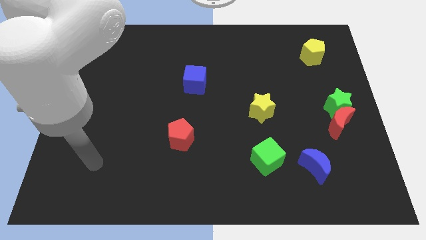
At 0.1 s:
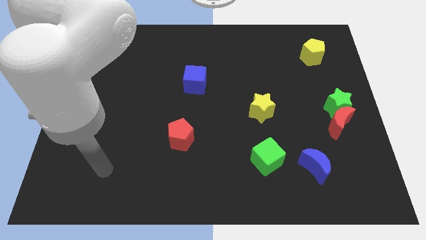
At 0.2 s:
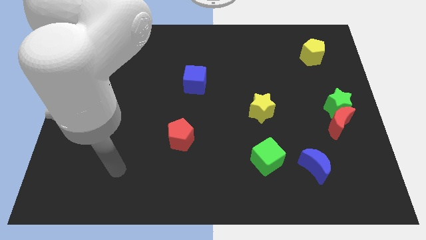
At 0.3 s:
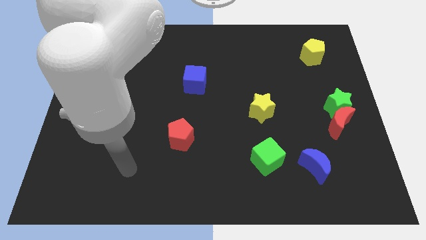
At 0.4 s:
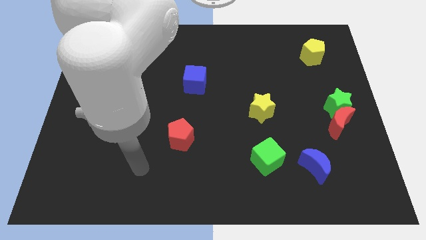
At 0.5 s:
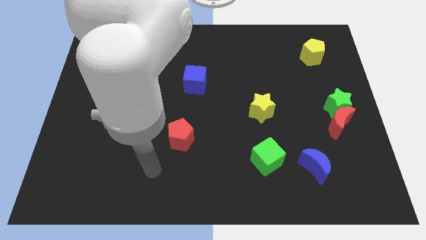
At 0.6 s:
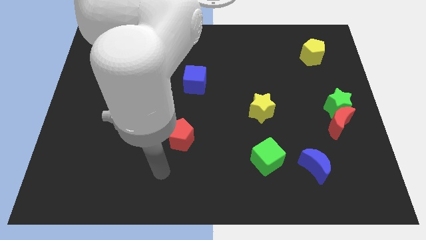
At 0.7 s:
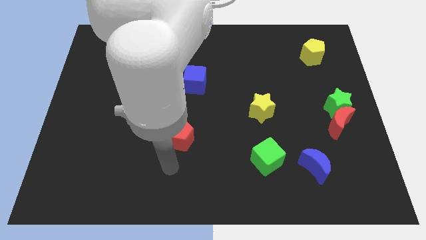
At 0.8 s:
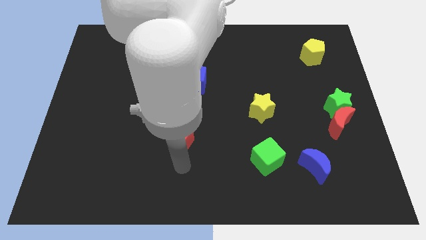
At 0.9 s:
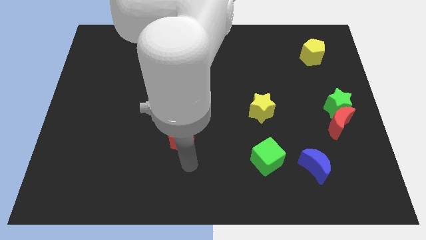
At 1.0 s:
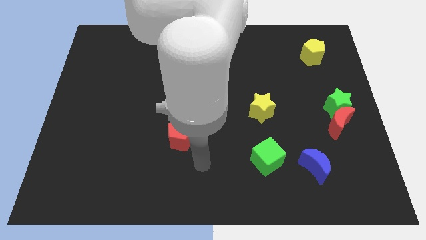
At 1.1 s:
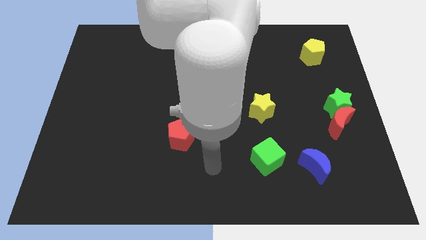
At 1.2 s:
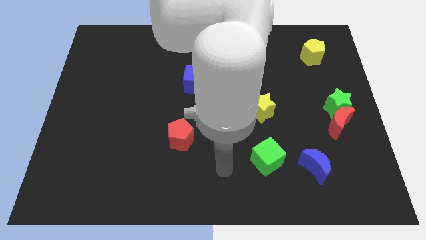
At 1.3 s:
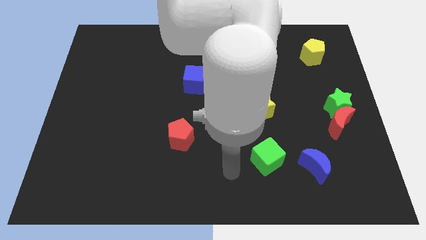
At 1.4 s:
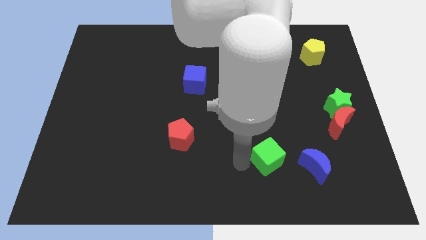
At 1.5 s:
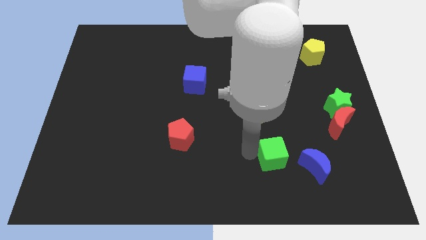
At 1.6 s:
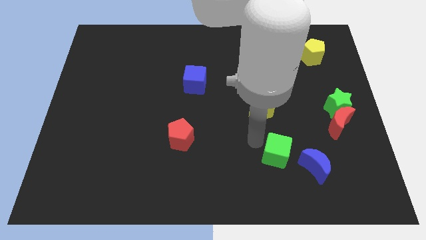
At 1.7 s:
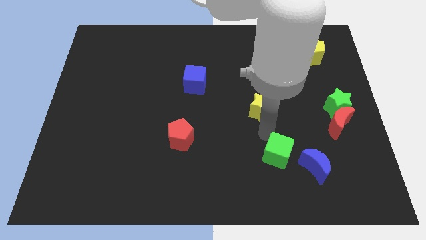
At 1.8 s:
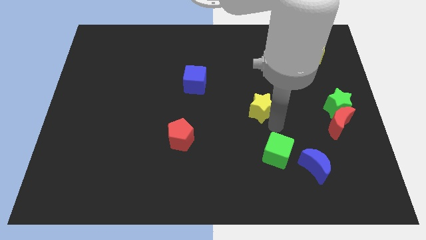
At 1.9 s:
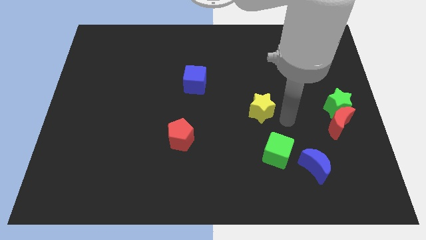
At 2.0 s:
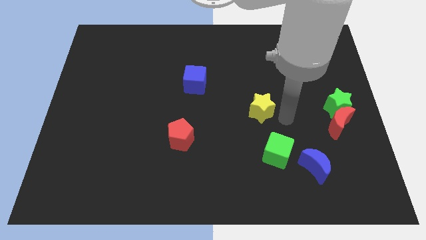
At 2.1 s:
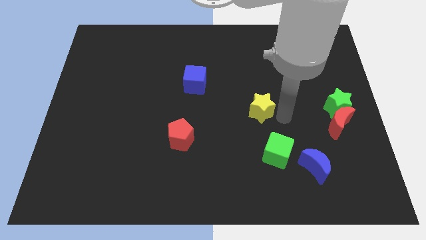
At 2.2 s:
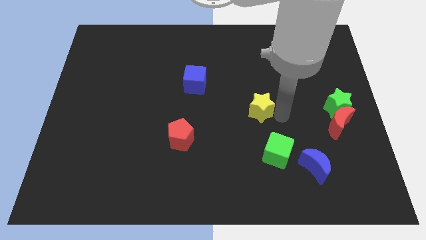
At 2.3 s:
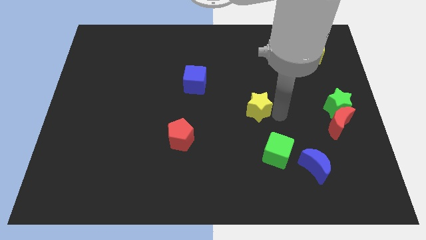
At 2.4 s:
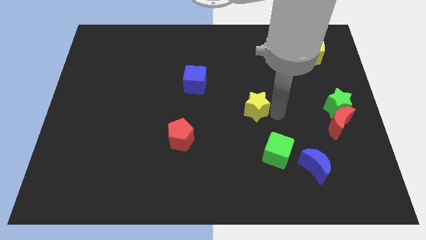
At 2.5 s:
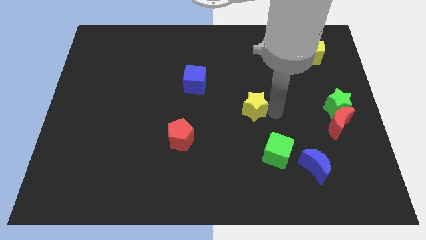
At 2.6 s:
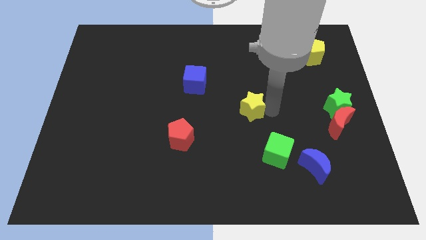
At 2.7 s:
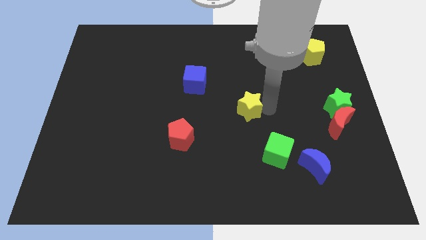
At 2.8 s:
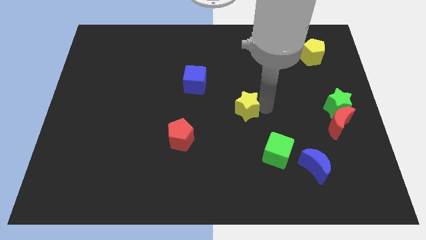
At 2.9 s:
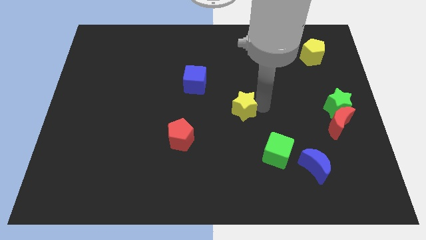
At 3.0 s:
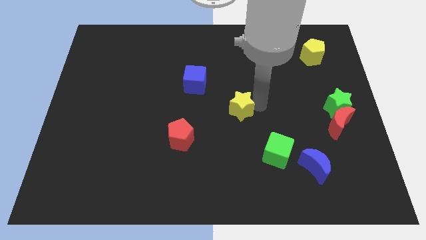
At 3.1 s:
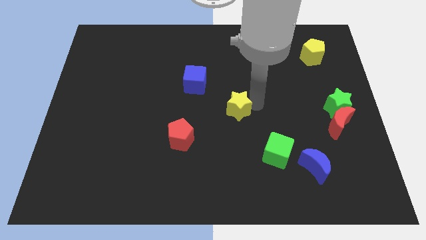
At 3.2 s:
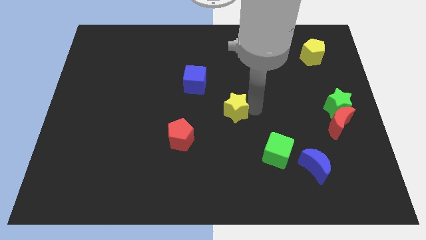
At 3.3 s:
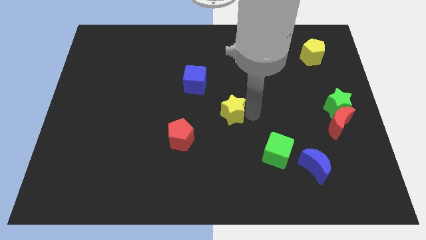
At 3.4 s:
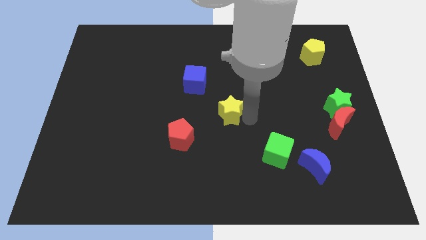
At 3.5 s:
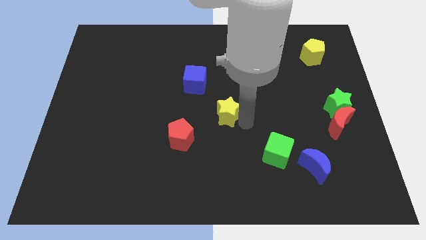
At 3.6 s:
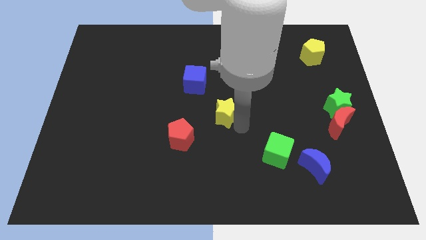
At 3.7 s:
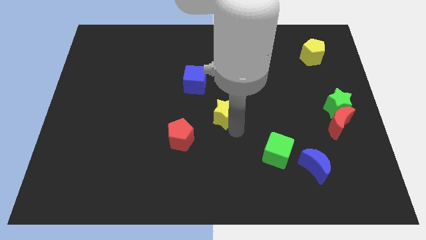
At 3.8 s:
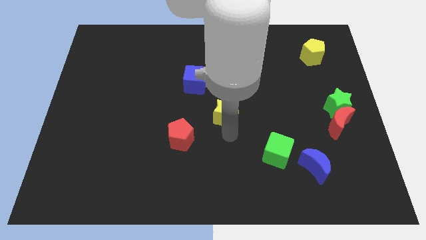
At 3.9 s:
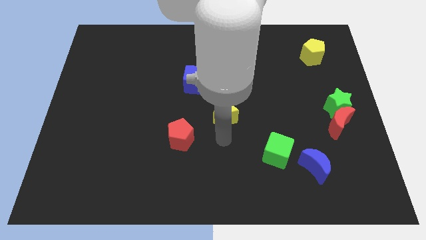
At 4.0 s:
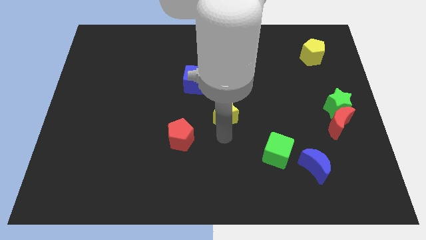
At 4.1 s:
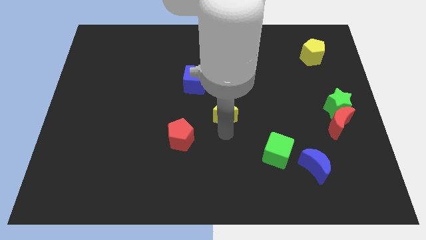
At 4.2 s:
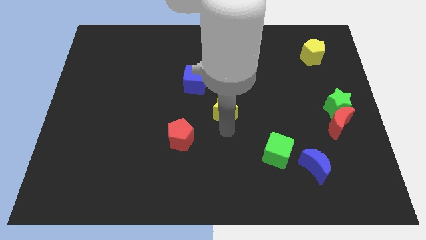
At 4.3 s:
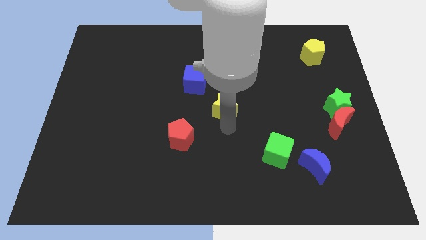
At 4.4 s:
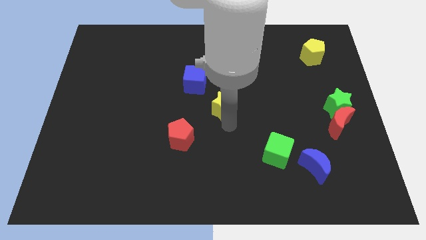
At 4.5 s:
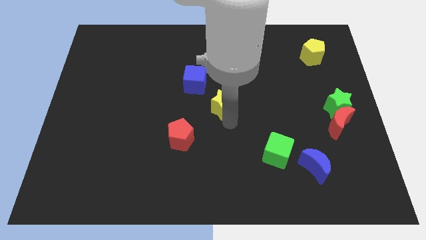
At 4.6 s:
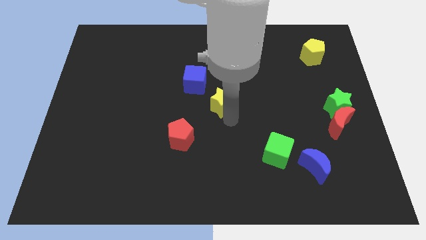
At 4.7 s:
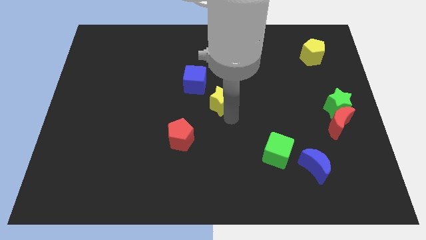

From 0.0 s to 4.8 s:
push the yellow star a bit upwards and then left

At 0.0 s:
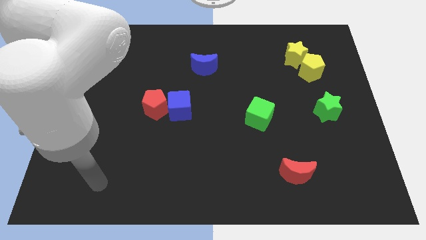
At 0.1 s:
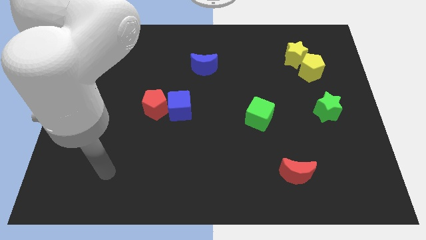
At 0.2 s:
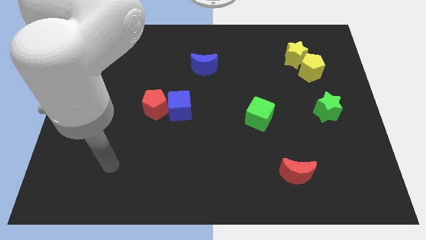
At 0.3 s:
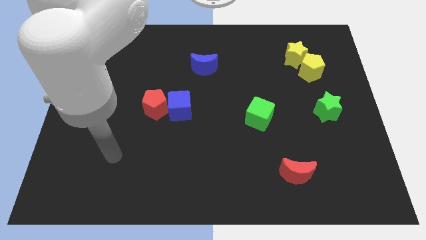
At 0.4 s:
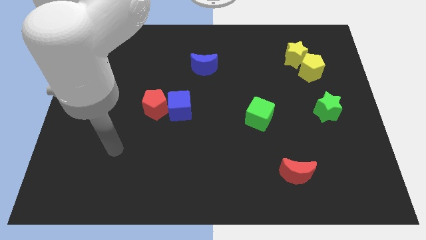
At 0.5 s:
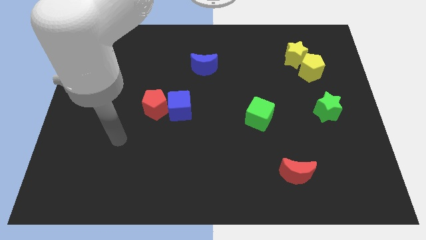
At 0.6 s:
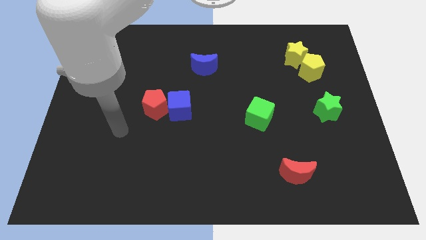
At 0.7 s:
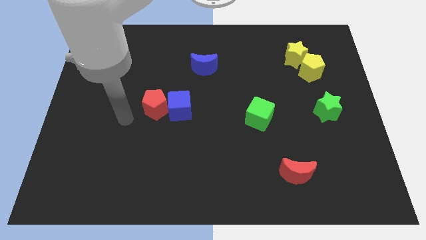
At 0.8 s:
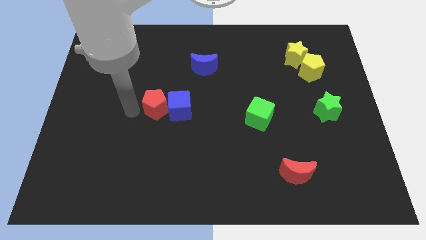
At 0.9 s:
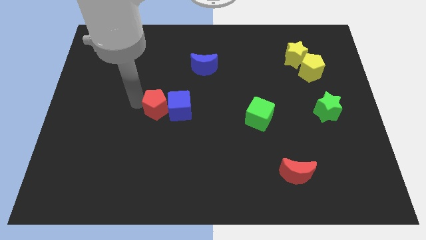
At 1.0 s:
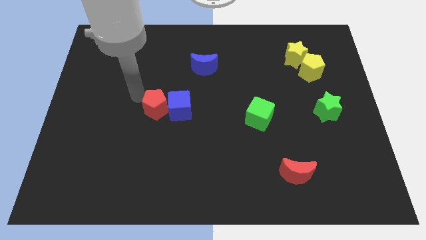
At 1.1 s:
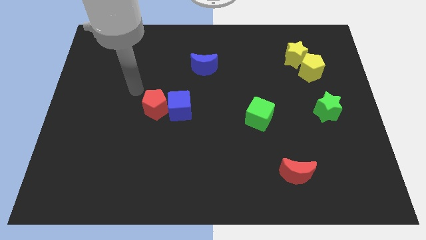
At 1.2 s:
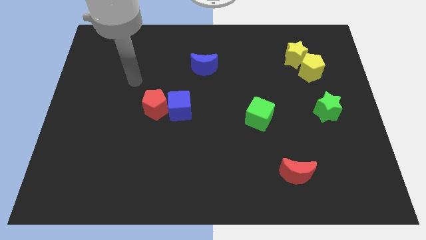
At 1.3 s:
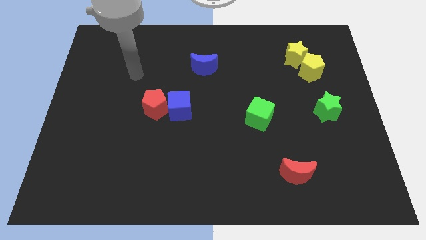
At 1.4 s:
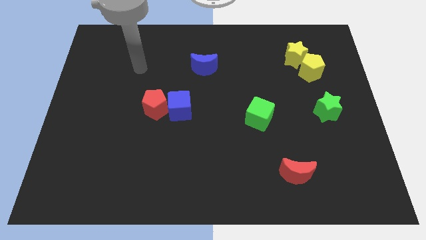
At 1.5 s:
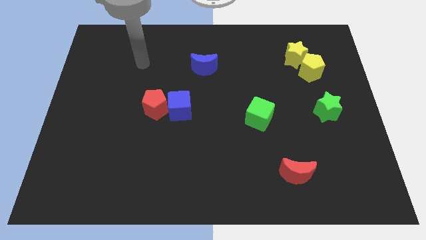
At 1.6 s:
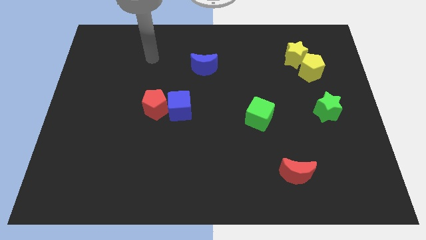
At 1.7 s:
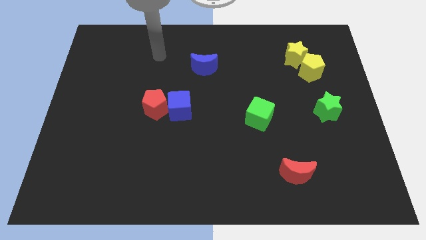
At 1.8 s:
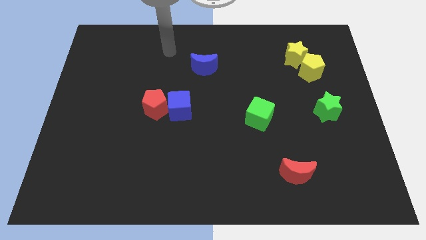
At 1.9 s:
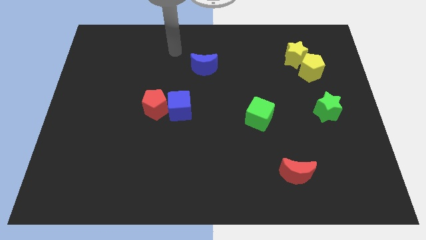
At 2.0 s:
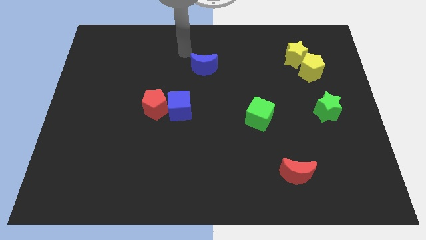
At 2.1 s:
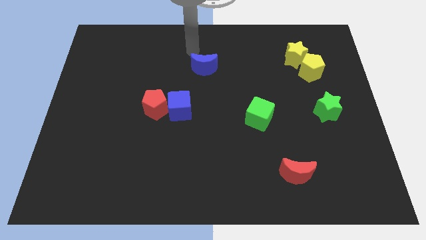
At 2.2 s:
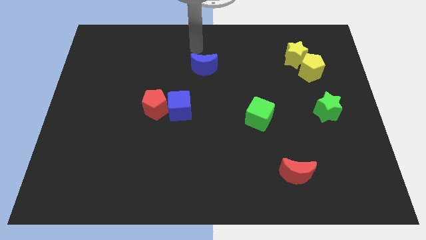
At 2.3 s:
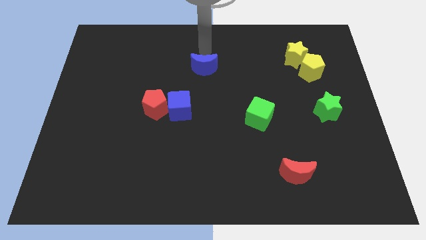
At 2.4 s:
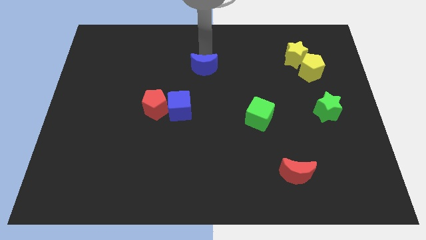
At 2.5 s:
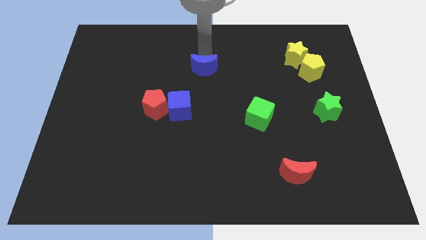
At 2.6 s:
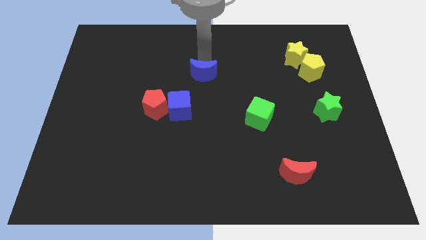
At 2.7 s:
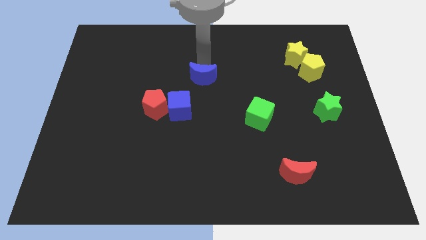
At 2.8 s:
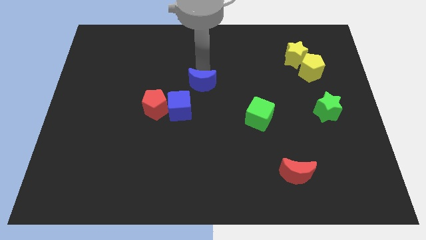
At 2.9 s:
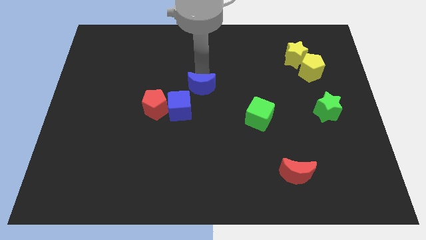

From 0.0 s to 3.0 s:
move the blue moon down a bit

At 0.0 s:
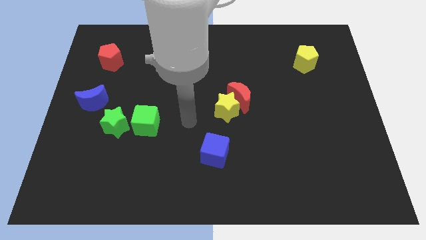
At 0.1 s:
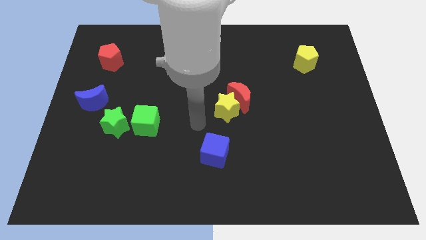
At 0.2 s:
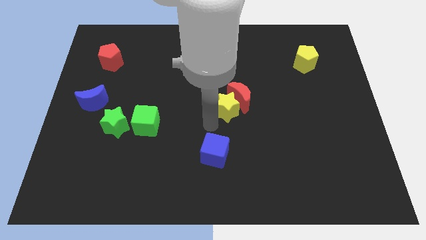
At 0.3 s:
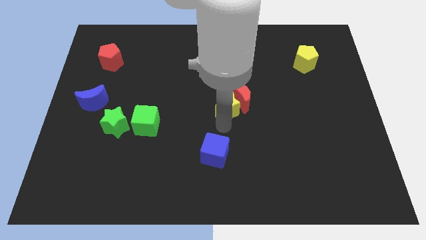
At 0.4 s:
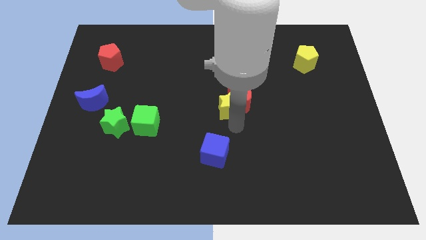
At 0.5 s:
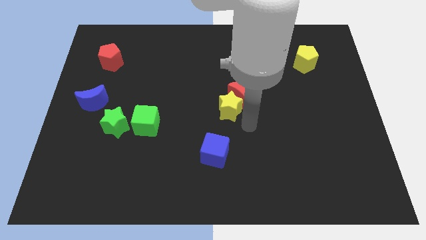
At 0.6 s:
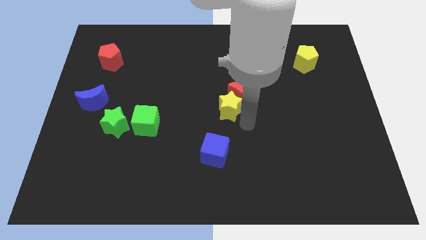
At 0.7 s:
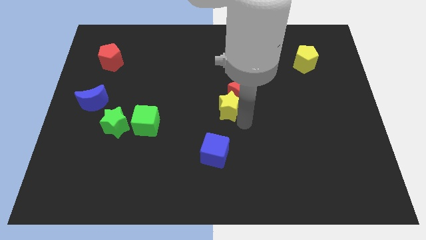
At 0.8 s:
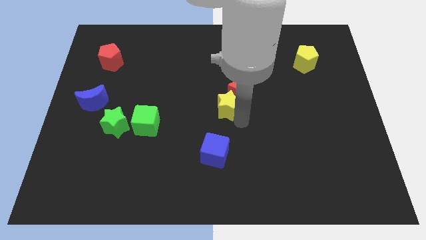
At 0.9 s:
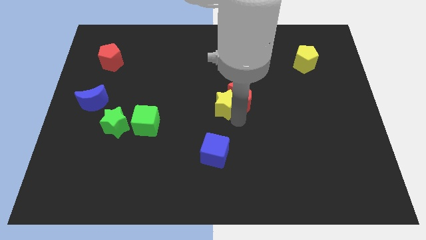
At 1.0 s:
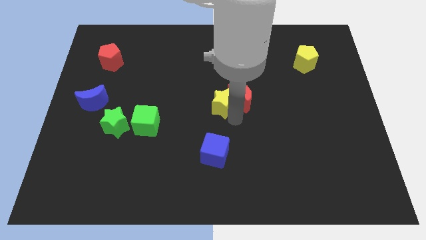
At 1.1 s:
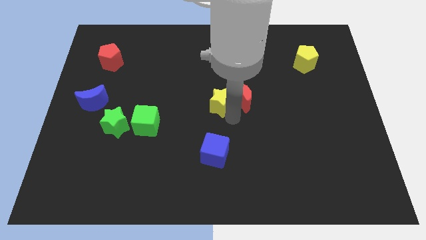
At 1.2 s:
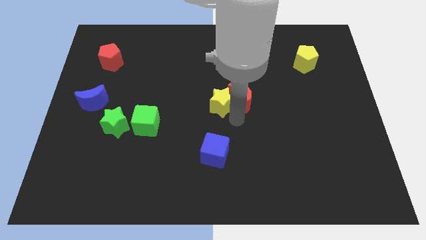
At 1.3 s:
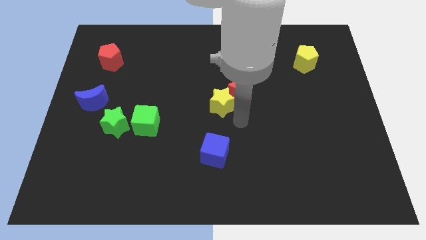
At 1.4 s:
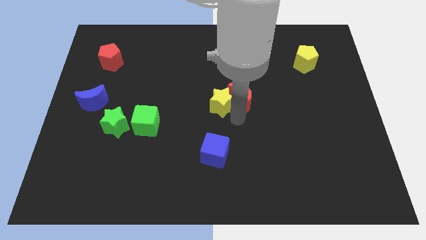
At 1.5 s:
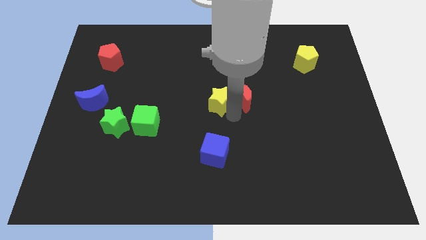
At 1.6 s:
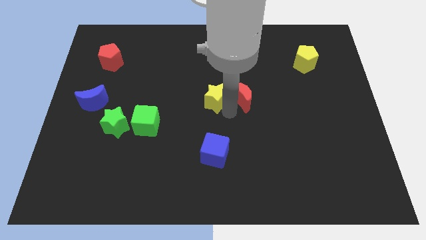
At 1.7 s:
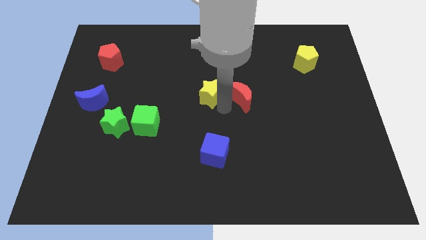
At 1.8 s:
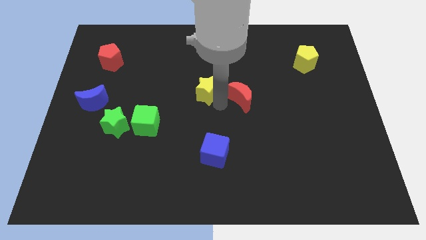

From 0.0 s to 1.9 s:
slide the yellow star somewhat up and to the left
